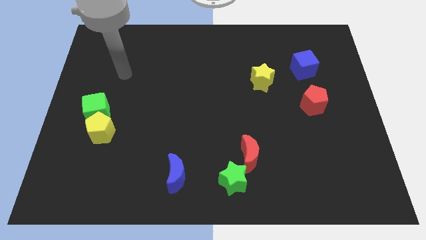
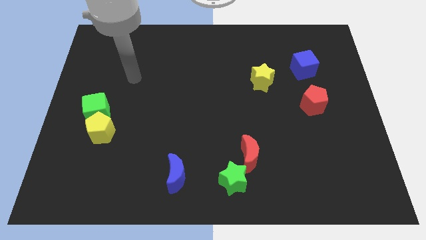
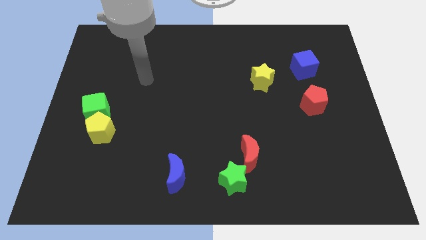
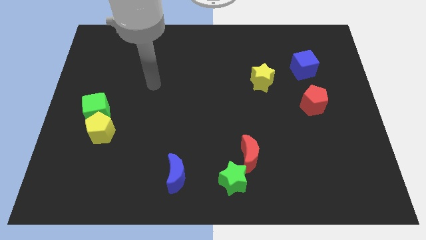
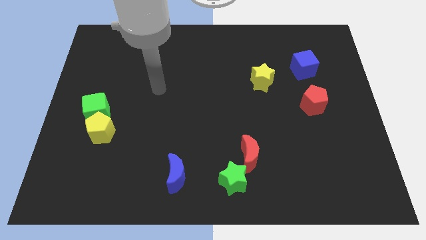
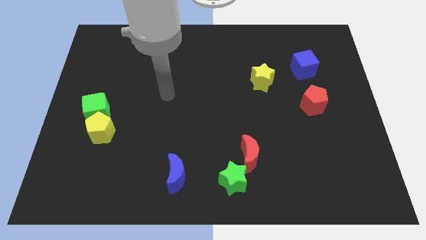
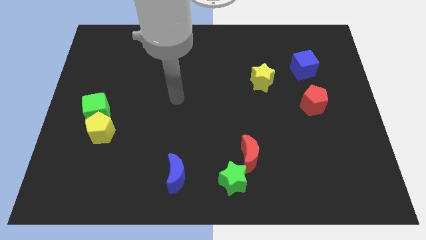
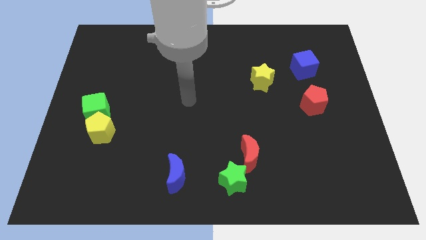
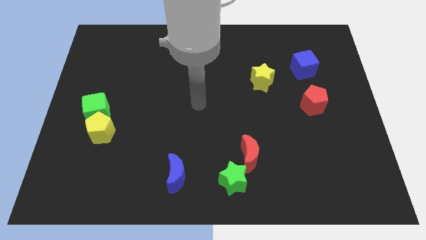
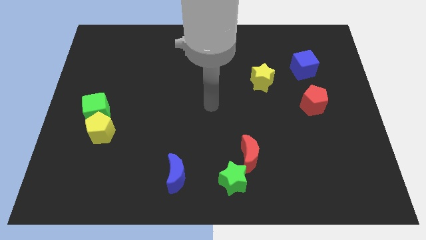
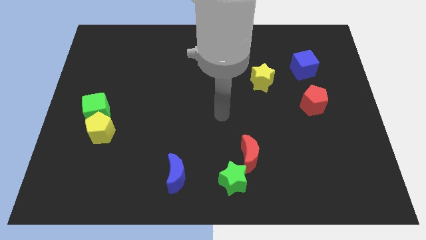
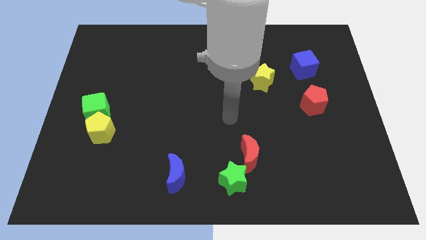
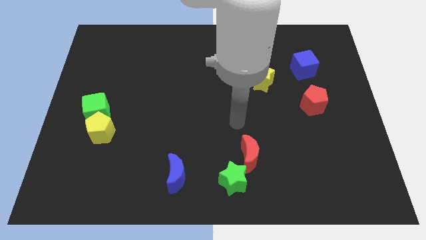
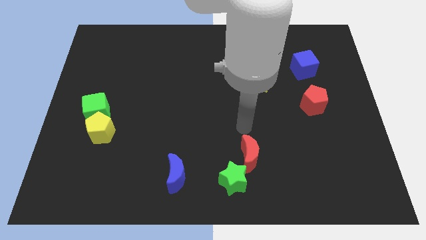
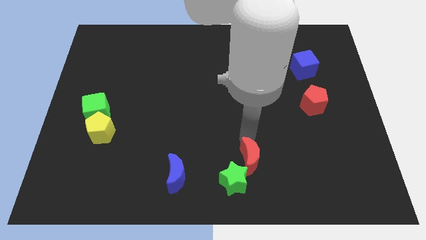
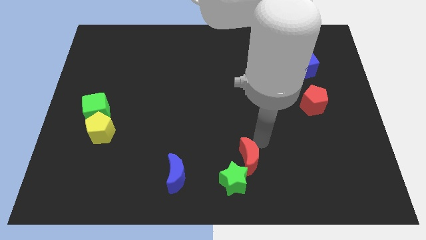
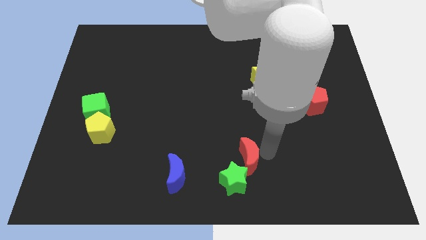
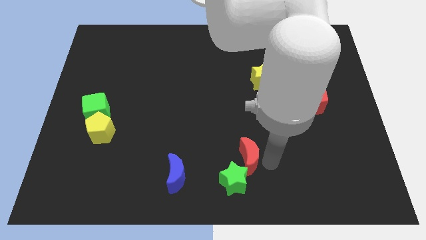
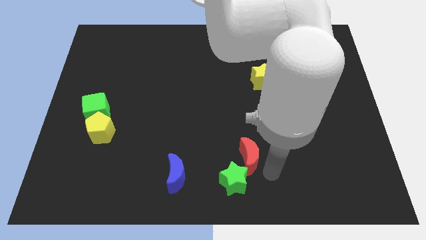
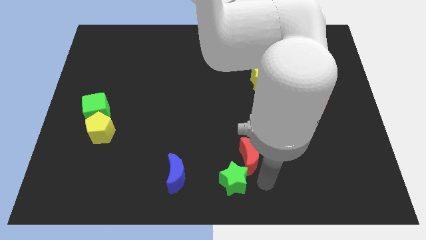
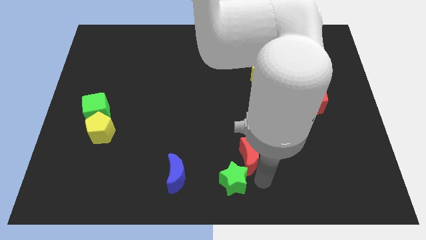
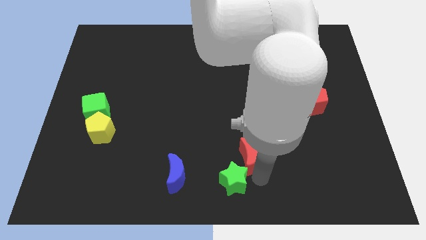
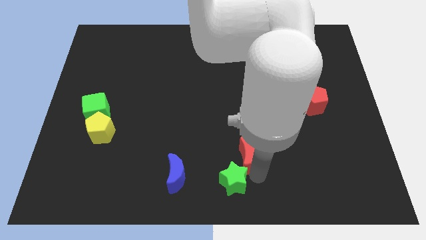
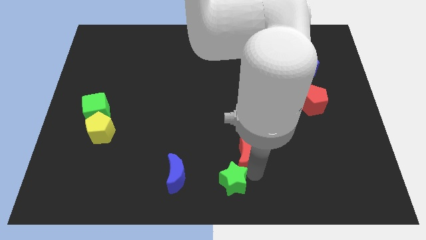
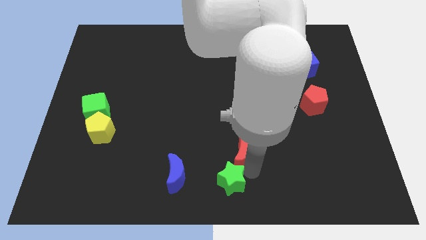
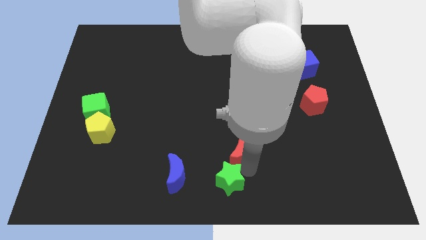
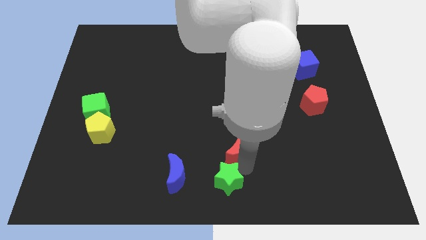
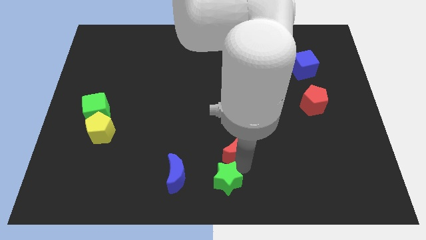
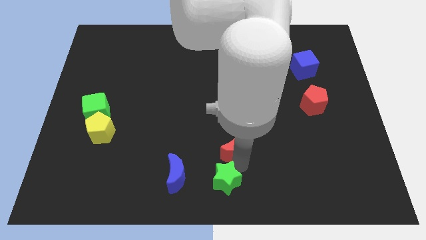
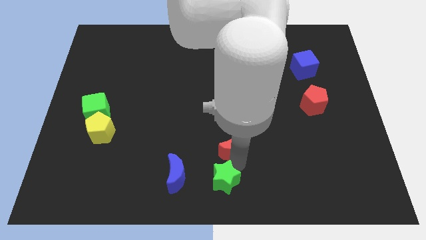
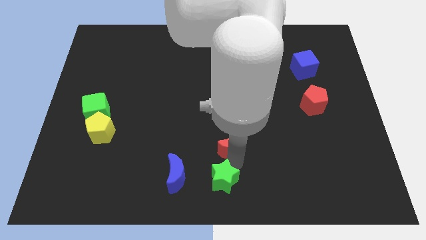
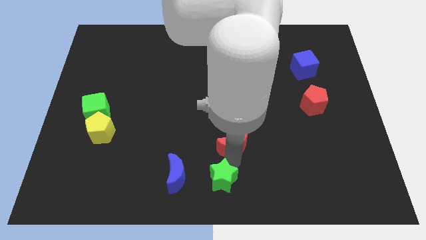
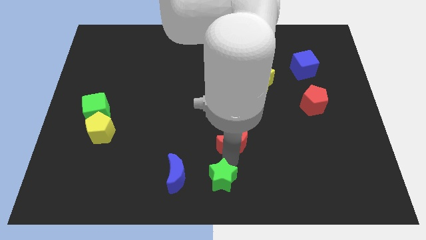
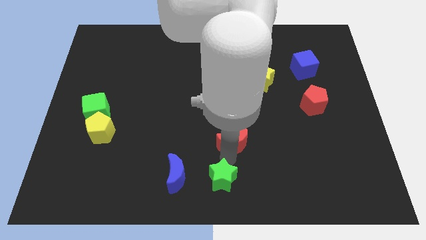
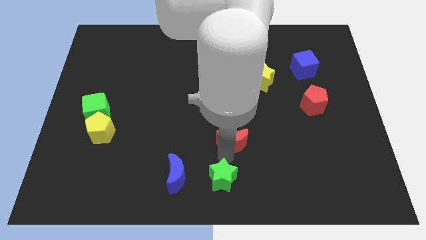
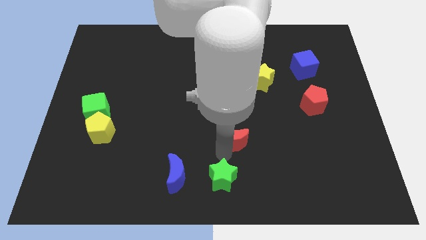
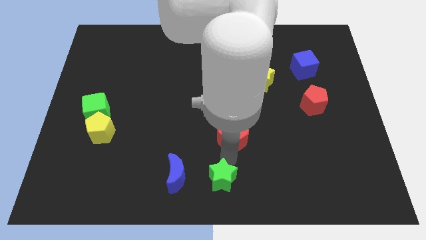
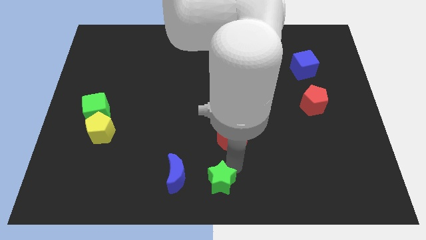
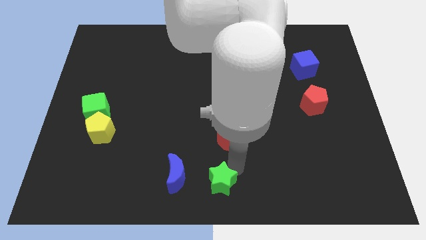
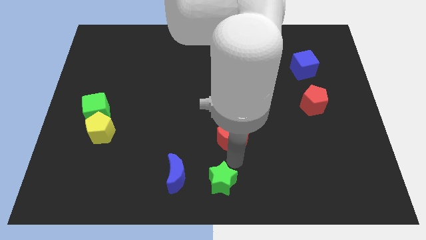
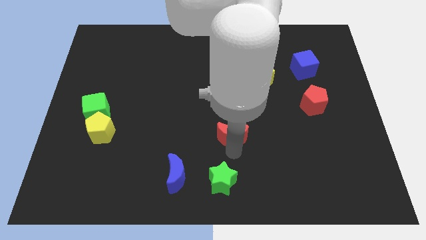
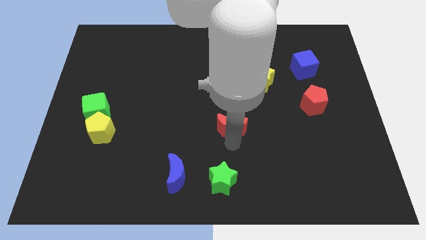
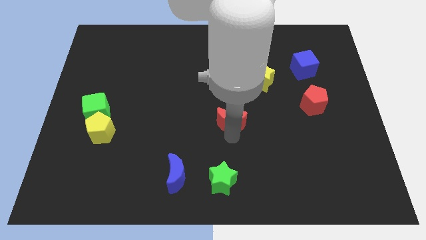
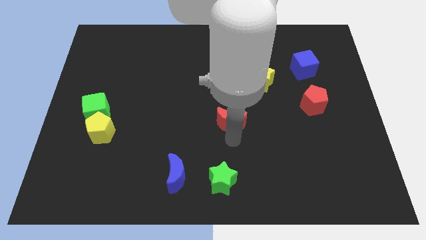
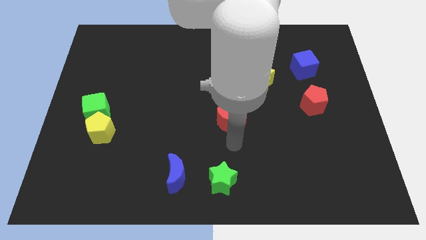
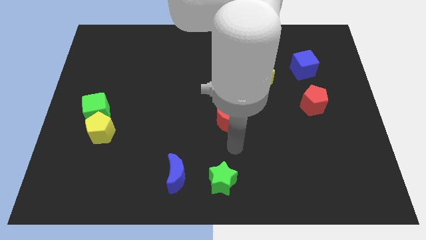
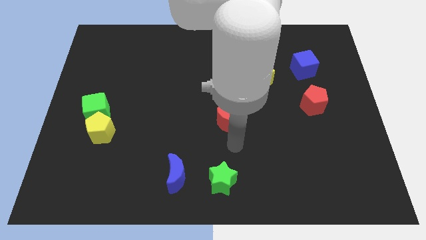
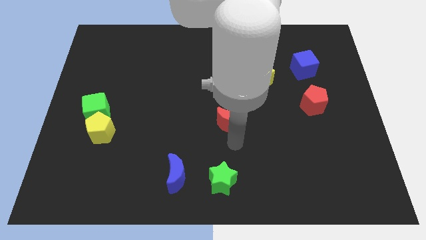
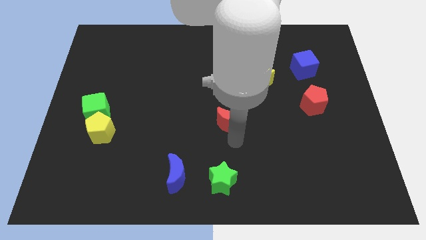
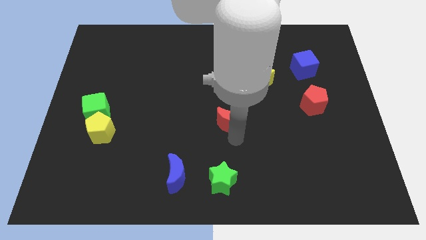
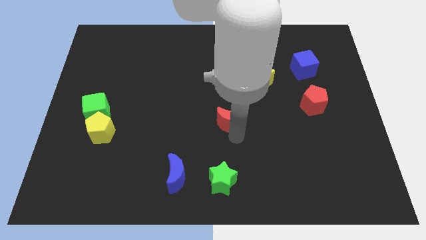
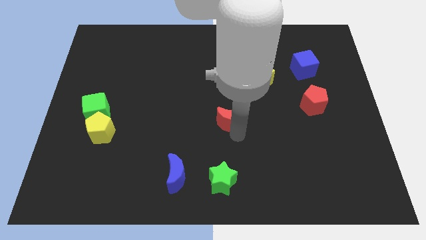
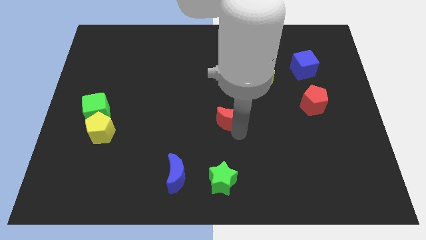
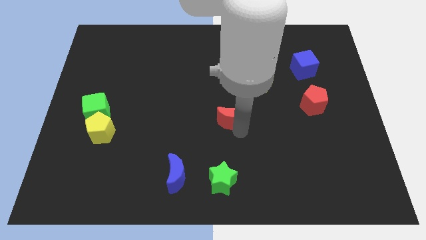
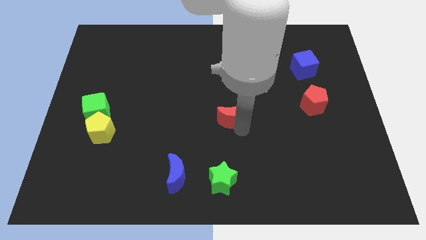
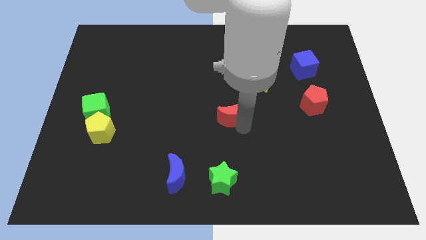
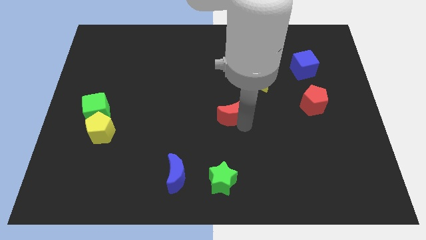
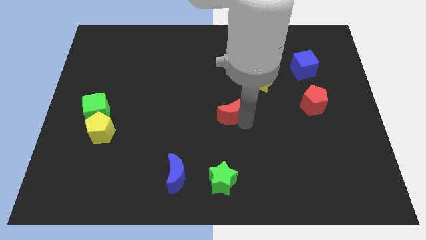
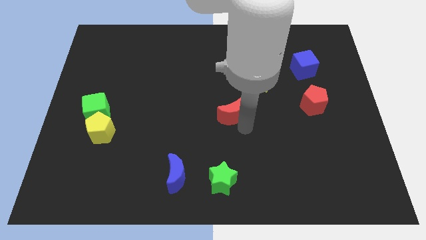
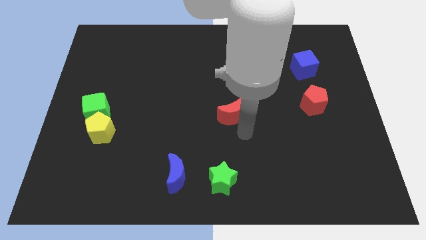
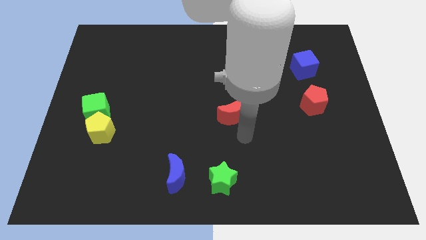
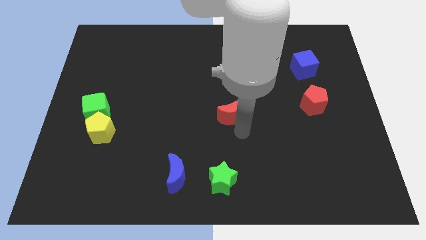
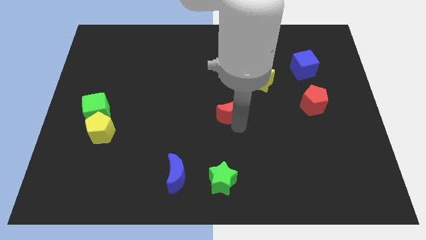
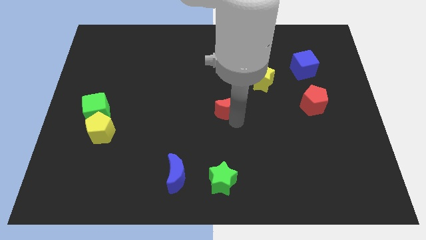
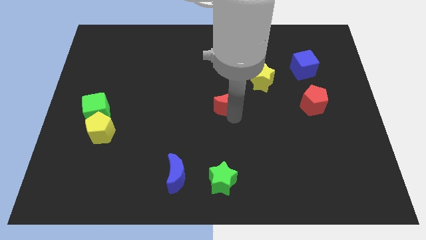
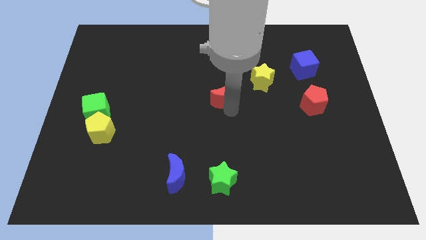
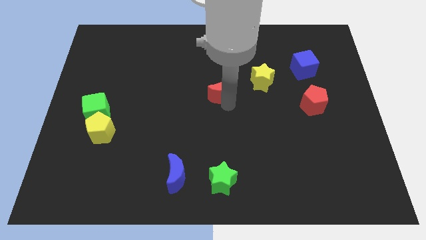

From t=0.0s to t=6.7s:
push the red moon to the left of the yellow star

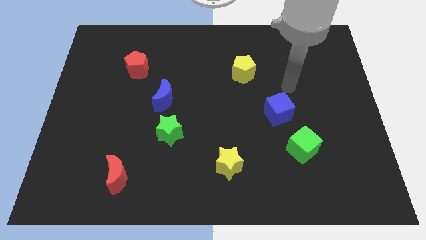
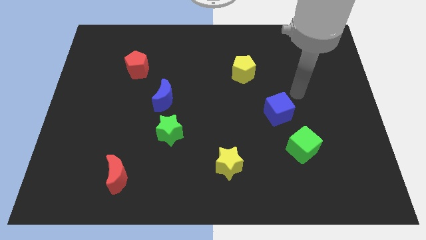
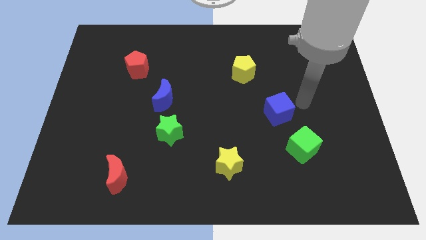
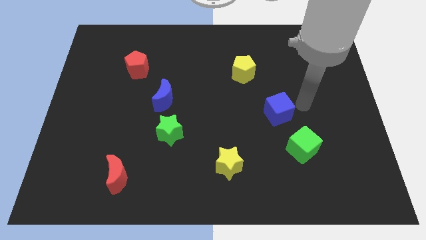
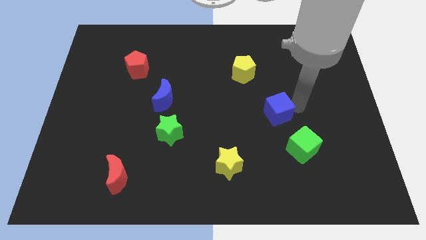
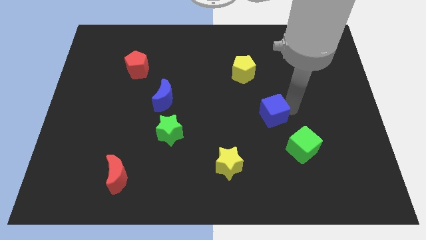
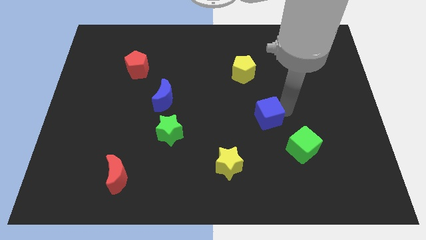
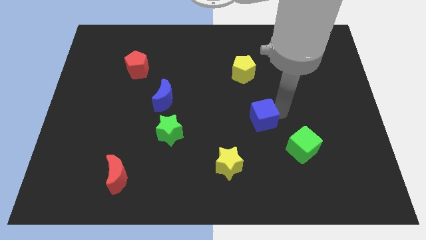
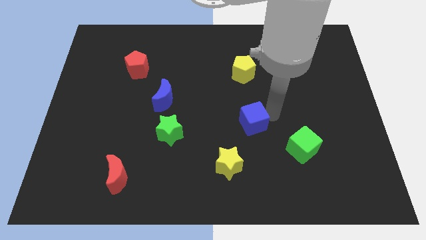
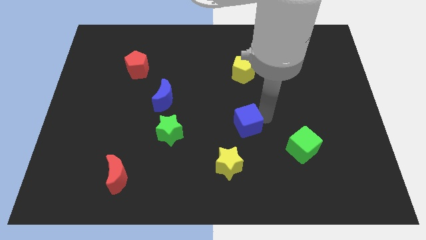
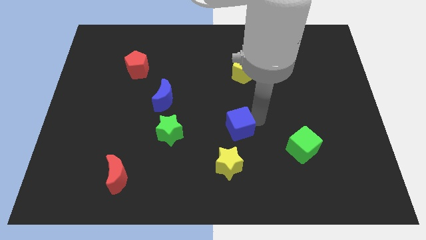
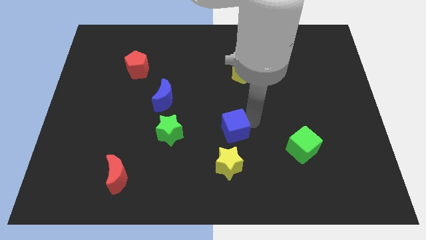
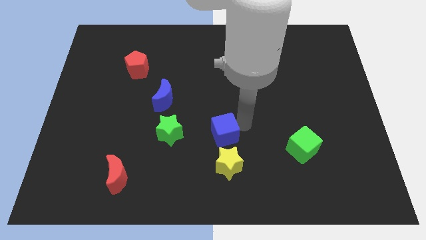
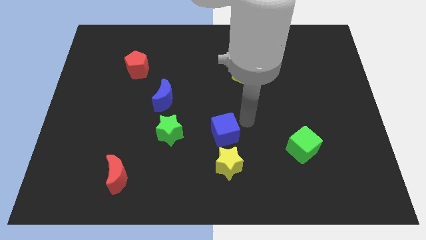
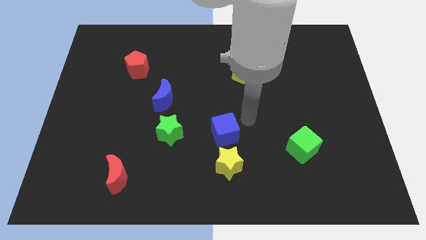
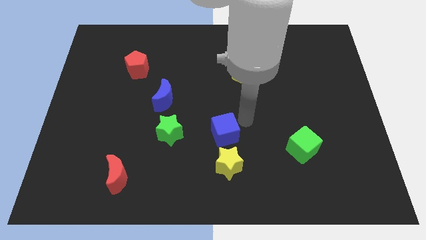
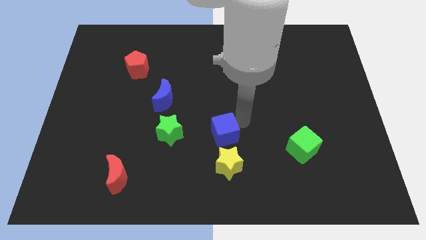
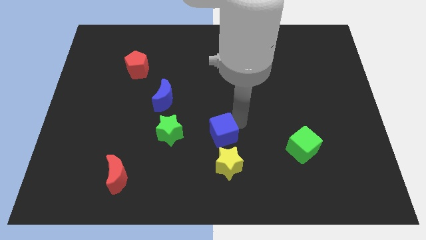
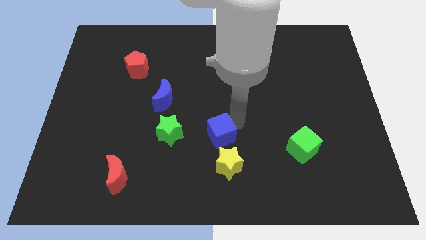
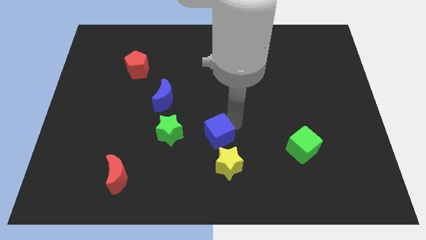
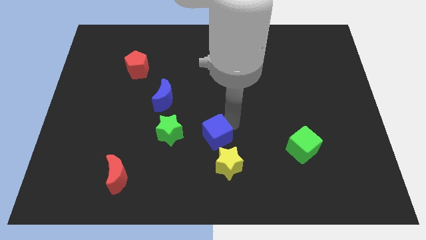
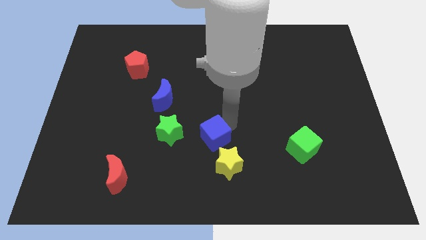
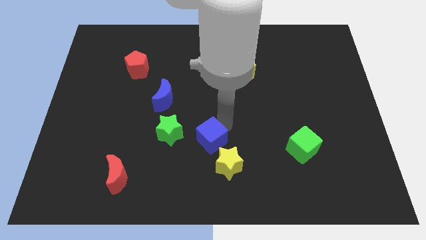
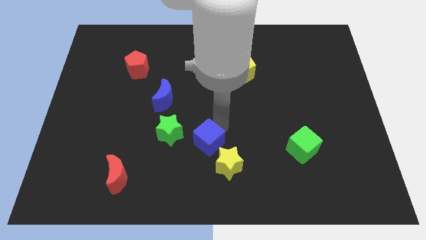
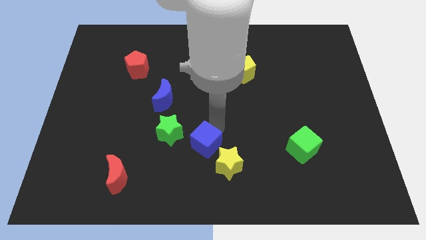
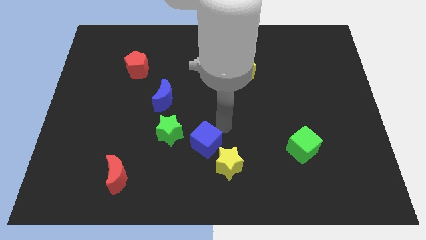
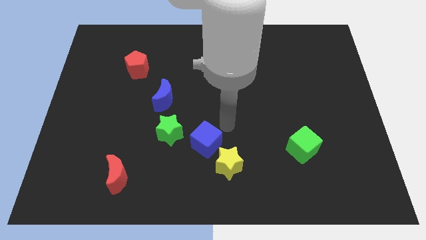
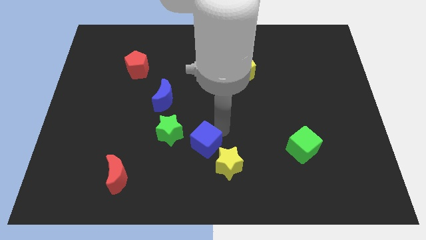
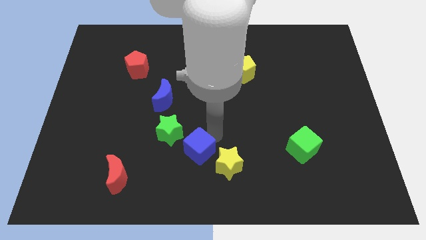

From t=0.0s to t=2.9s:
slide the blue cube to the left of the yellow star
